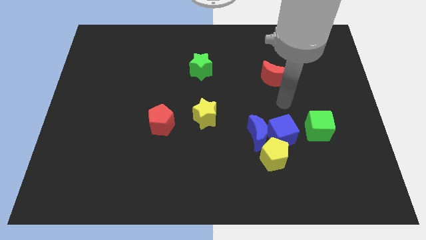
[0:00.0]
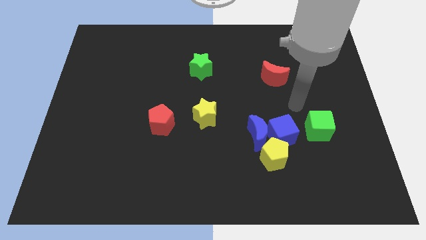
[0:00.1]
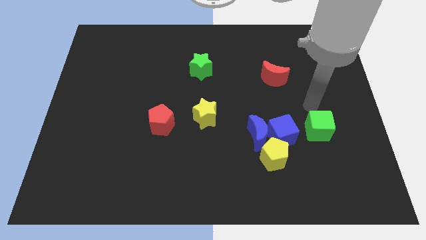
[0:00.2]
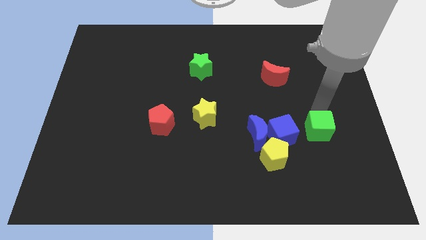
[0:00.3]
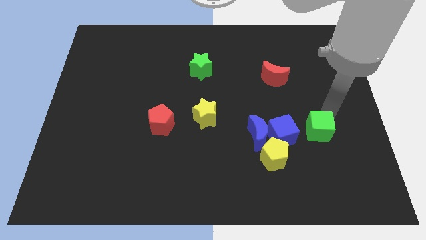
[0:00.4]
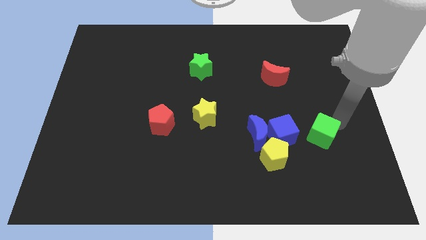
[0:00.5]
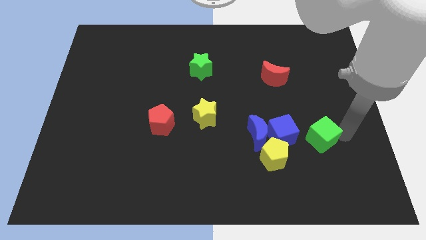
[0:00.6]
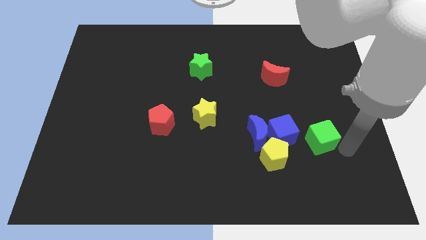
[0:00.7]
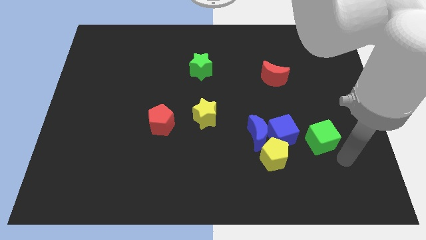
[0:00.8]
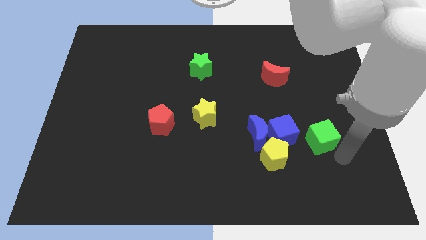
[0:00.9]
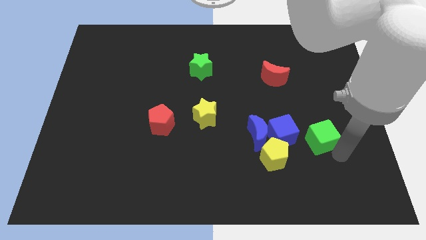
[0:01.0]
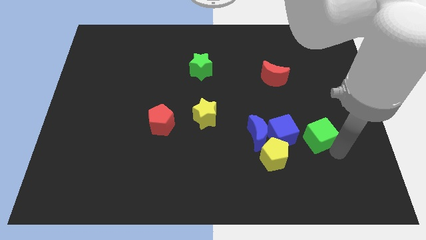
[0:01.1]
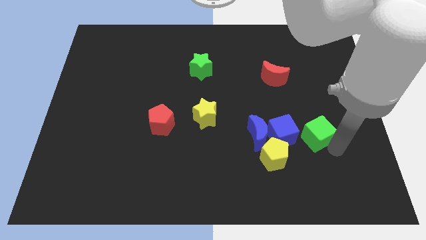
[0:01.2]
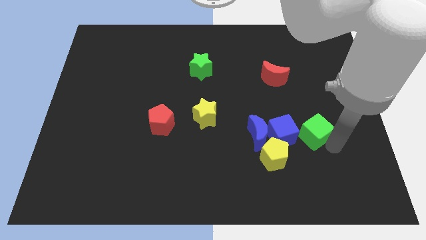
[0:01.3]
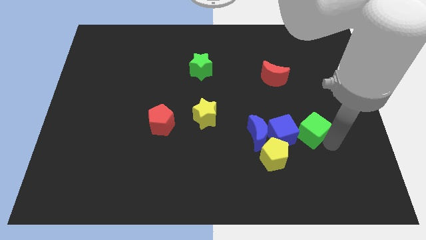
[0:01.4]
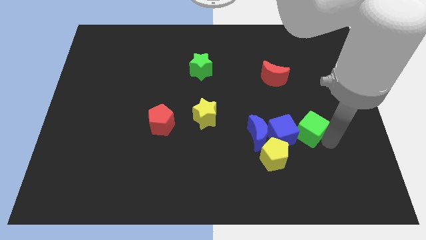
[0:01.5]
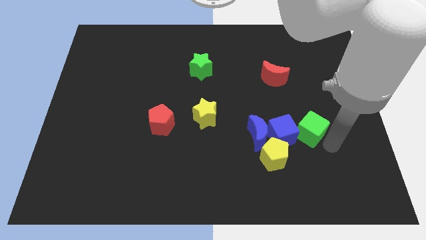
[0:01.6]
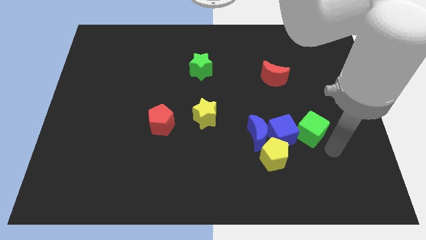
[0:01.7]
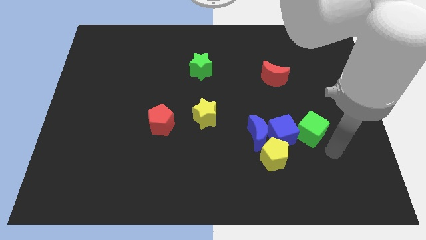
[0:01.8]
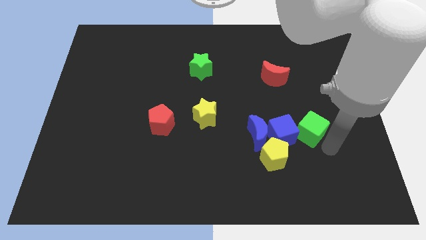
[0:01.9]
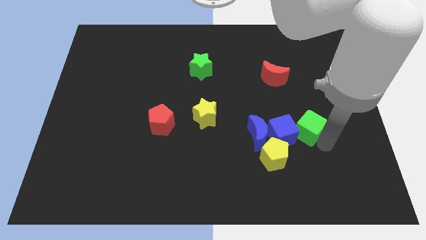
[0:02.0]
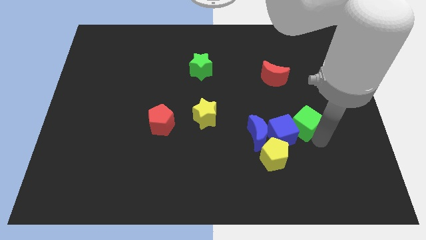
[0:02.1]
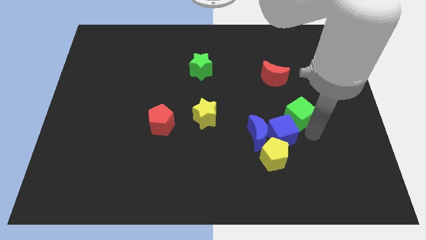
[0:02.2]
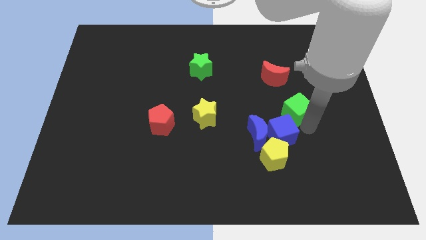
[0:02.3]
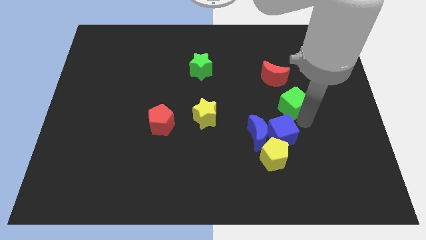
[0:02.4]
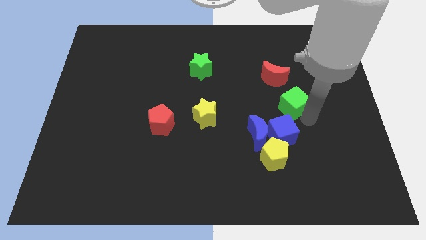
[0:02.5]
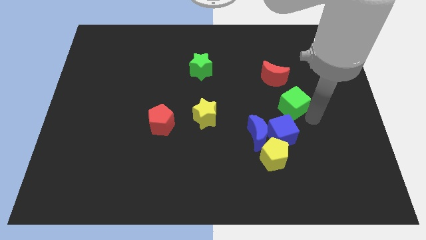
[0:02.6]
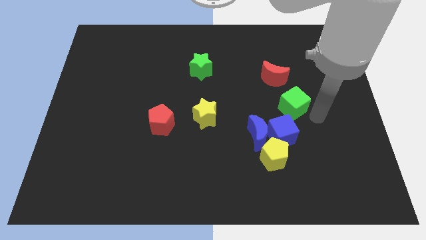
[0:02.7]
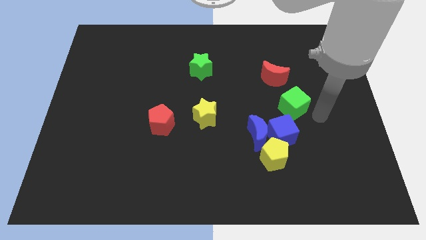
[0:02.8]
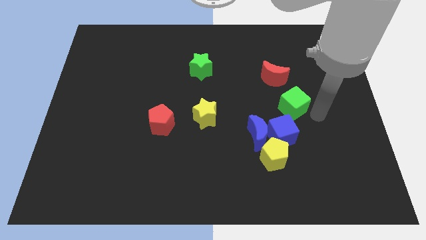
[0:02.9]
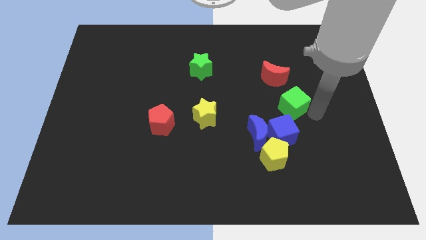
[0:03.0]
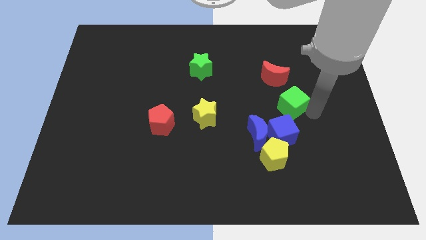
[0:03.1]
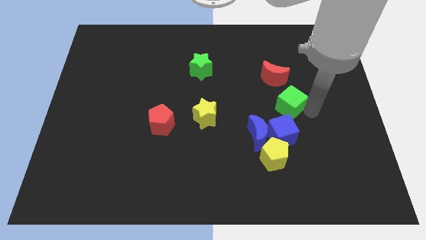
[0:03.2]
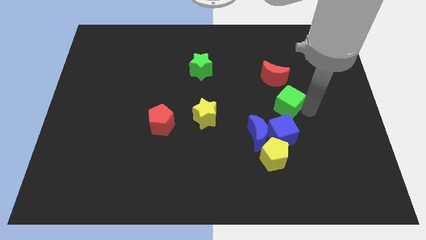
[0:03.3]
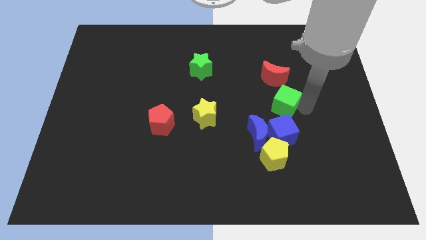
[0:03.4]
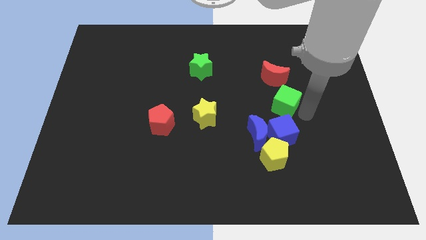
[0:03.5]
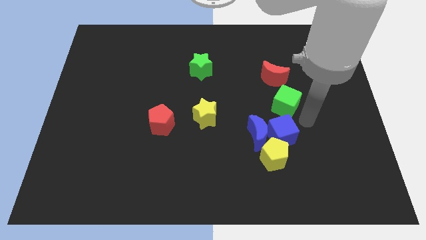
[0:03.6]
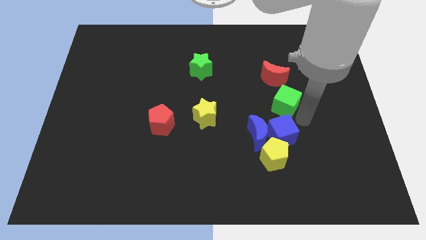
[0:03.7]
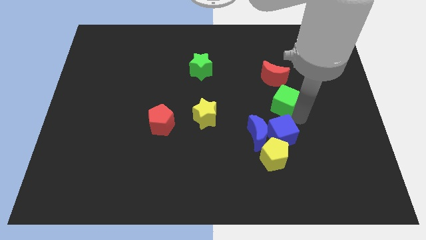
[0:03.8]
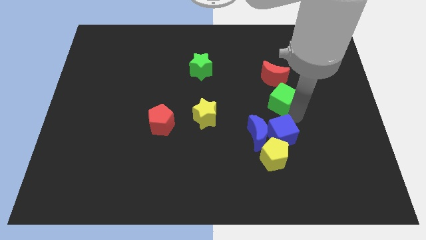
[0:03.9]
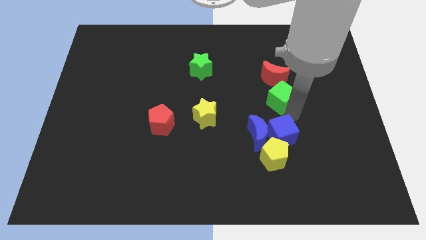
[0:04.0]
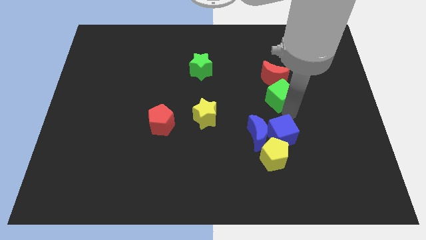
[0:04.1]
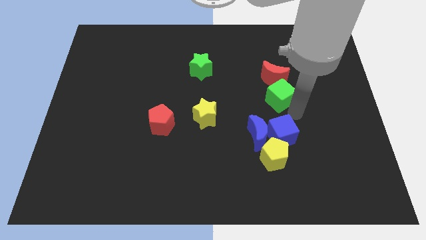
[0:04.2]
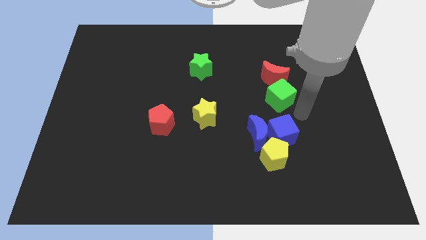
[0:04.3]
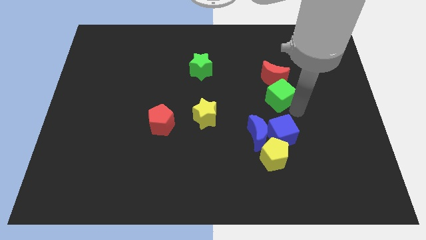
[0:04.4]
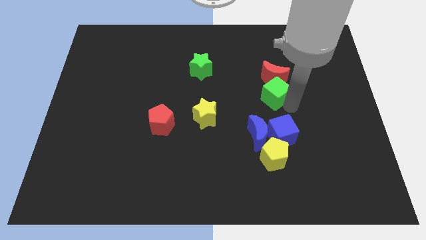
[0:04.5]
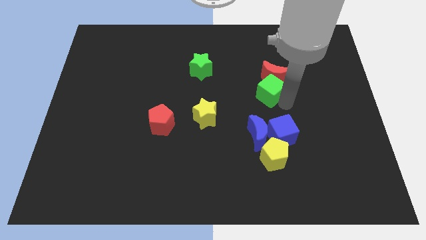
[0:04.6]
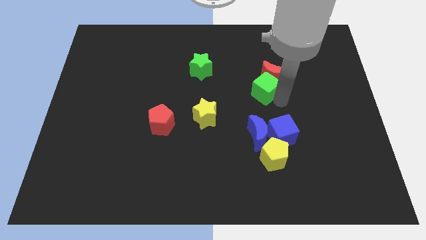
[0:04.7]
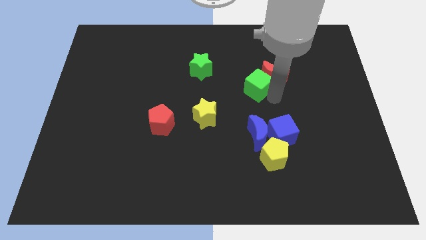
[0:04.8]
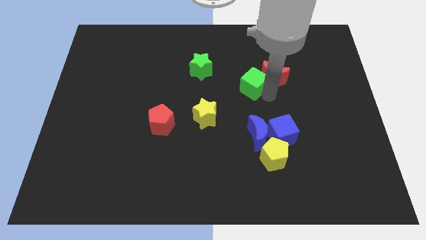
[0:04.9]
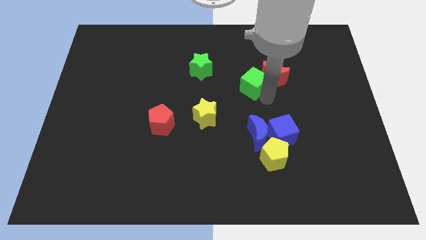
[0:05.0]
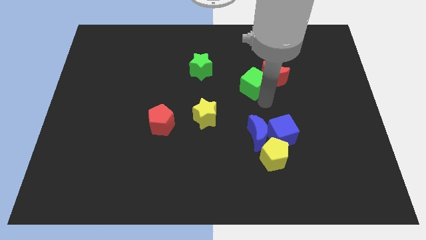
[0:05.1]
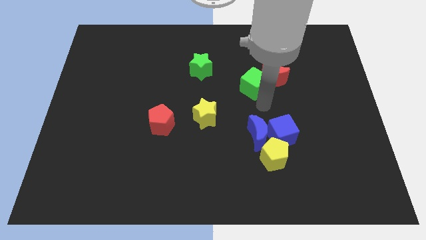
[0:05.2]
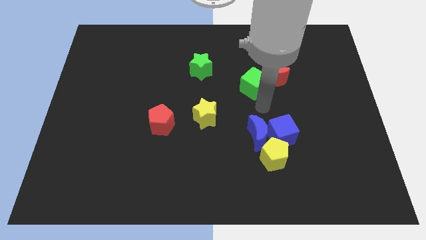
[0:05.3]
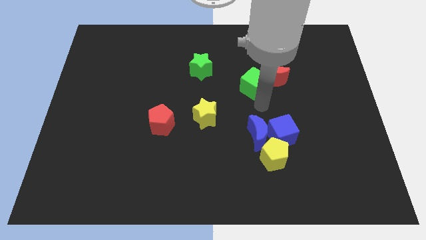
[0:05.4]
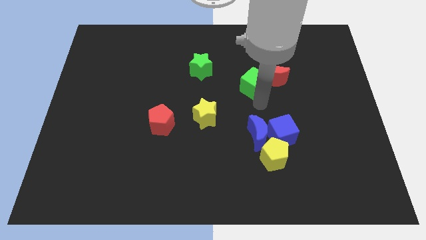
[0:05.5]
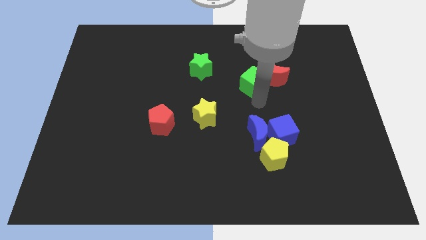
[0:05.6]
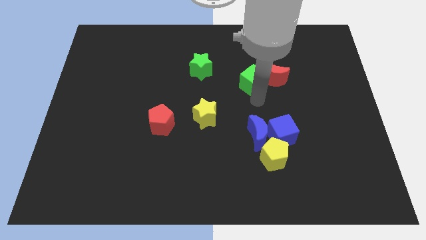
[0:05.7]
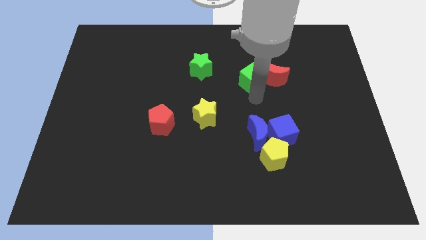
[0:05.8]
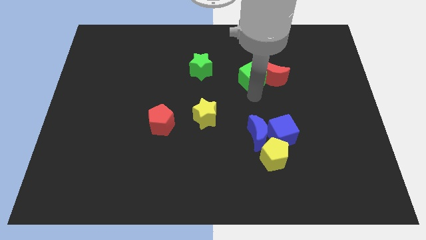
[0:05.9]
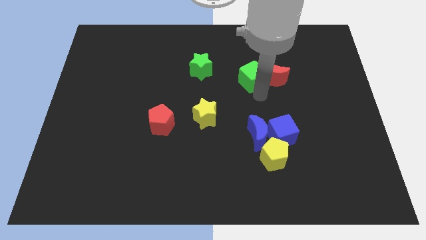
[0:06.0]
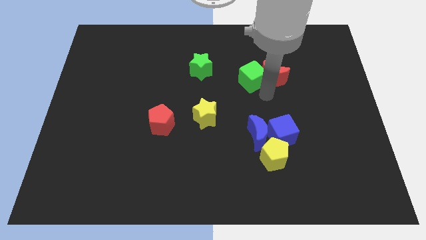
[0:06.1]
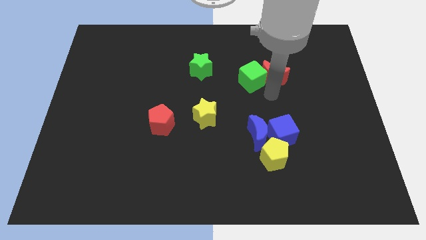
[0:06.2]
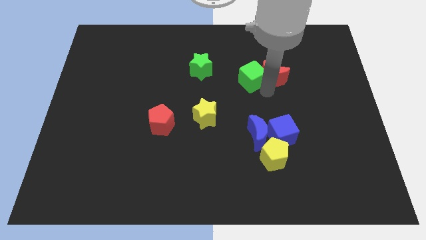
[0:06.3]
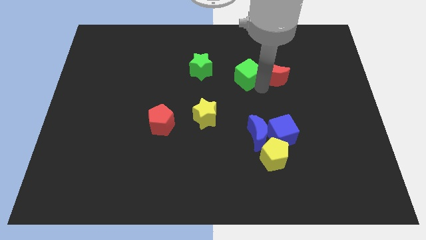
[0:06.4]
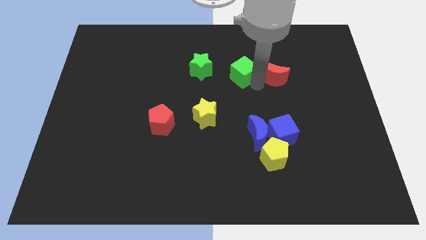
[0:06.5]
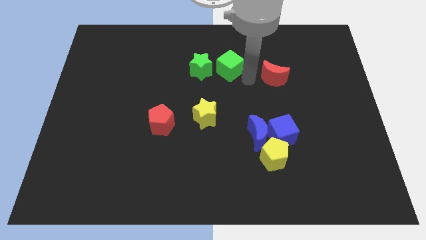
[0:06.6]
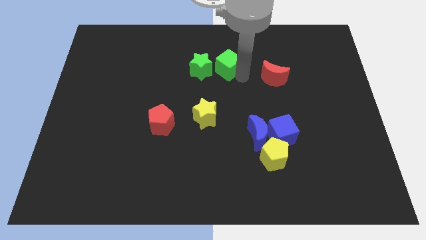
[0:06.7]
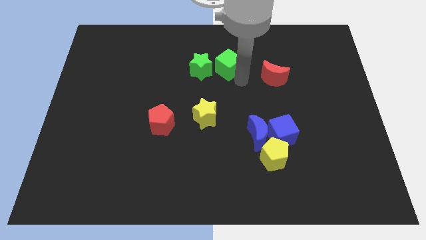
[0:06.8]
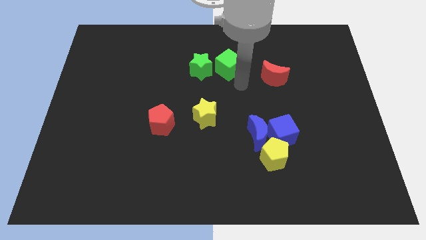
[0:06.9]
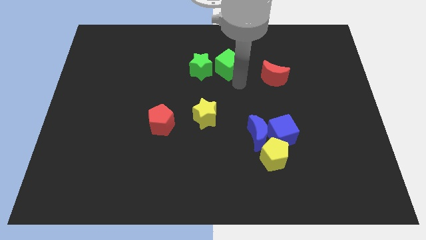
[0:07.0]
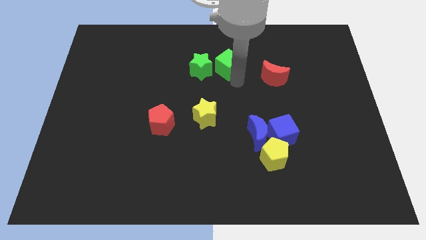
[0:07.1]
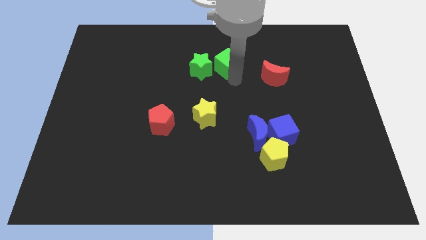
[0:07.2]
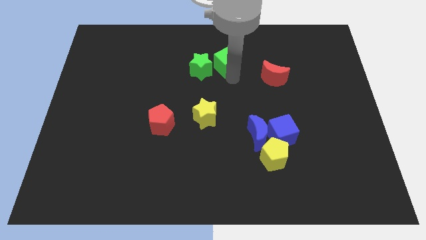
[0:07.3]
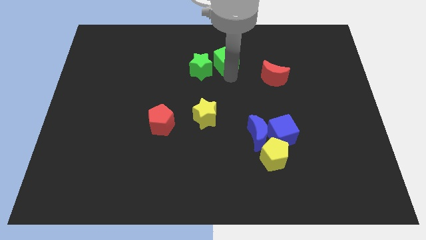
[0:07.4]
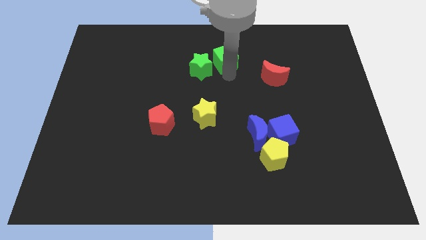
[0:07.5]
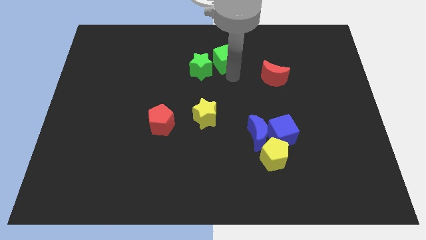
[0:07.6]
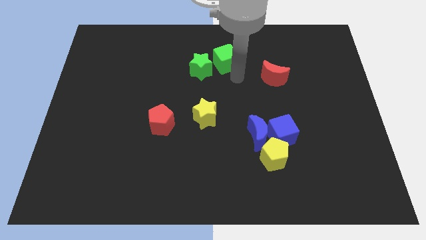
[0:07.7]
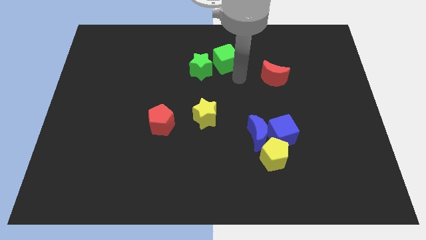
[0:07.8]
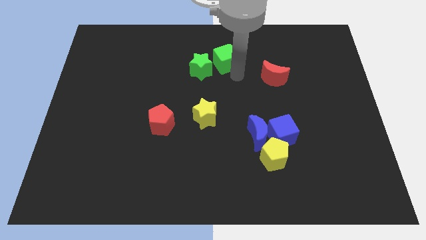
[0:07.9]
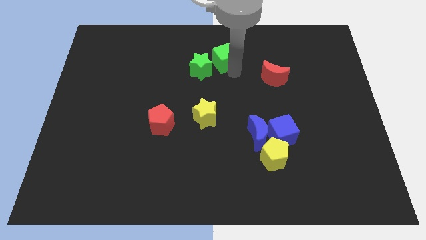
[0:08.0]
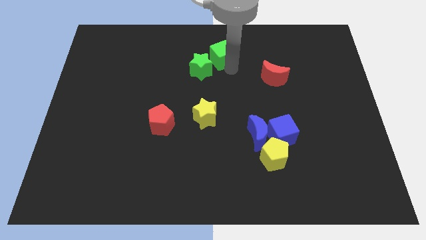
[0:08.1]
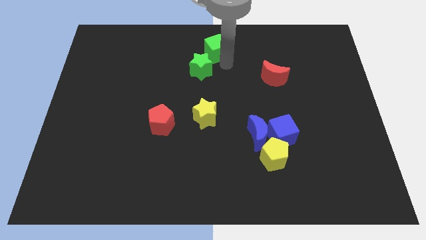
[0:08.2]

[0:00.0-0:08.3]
push the green cube to the top
